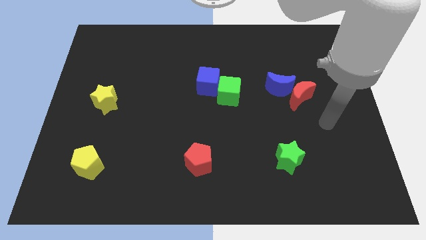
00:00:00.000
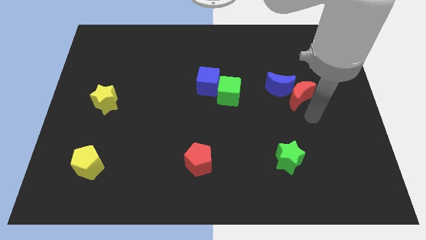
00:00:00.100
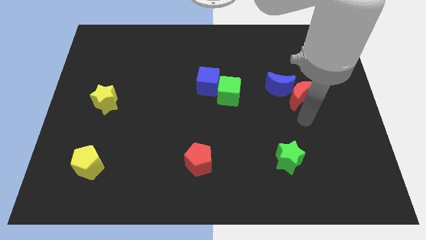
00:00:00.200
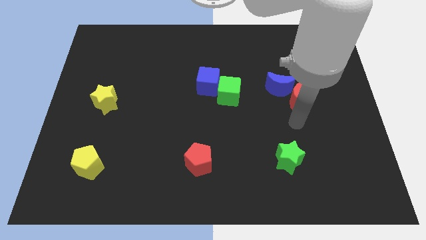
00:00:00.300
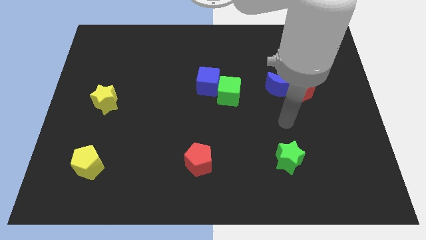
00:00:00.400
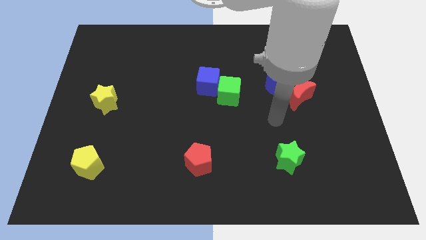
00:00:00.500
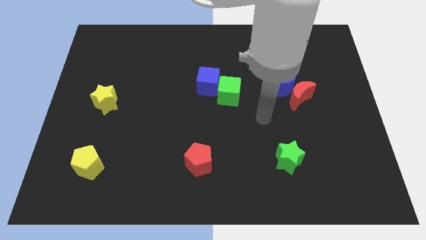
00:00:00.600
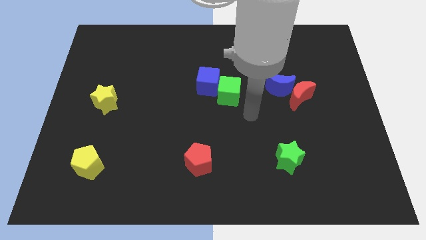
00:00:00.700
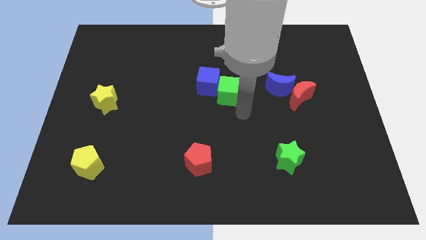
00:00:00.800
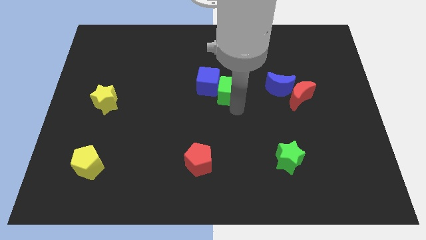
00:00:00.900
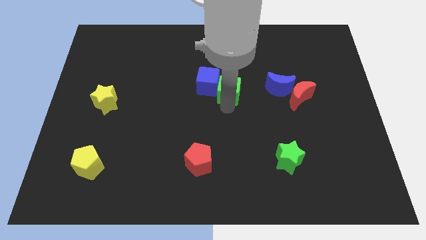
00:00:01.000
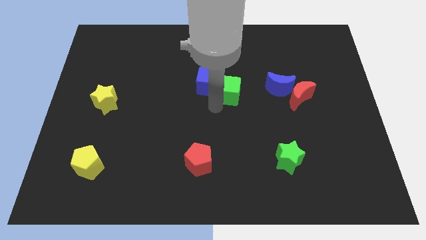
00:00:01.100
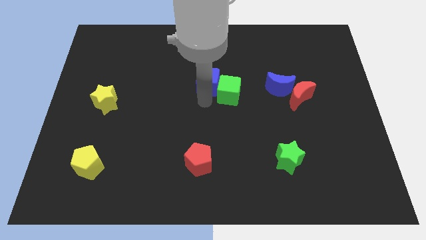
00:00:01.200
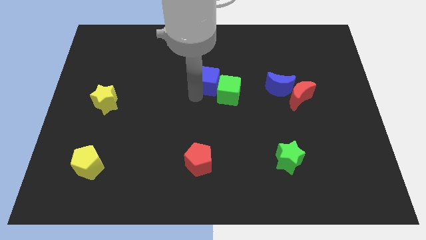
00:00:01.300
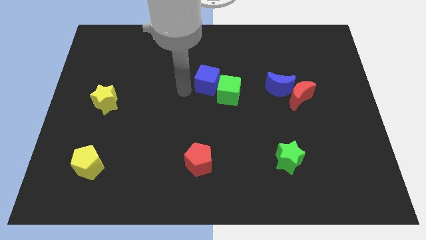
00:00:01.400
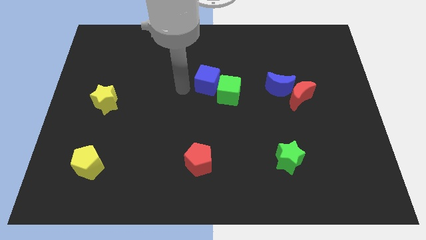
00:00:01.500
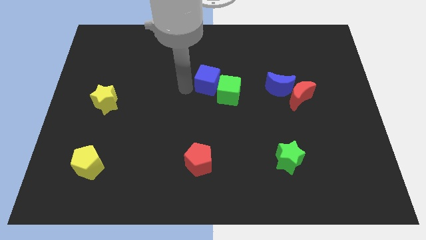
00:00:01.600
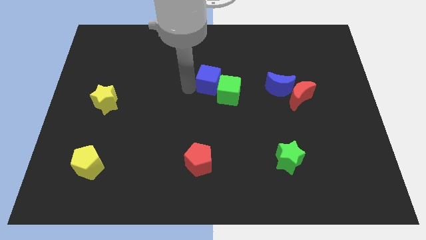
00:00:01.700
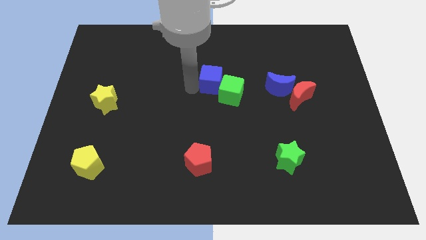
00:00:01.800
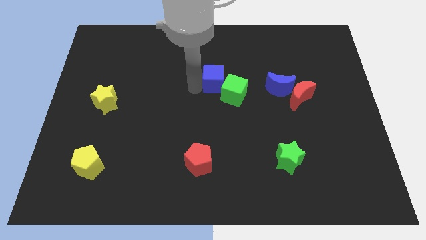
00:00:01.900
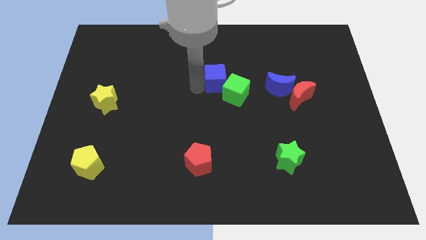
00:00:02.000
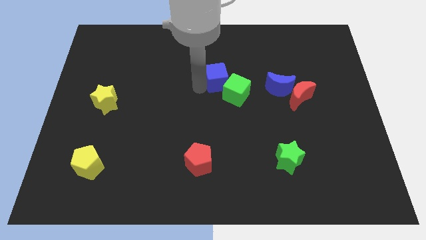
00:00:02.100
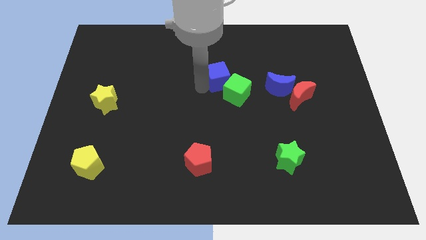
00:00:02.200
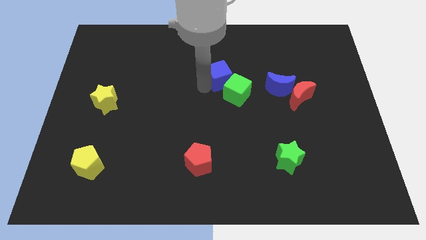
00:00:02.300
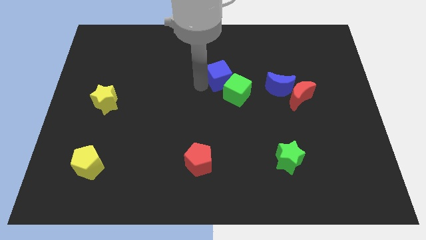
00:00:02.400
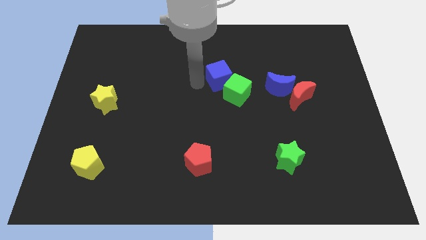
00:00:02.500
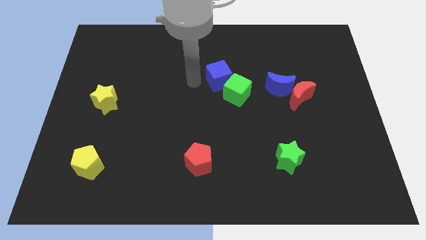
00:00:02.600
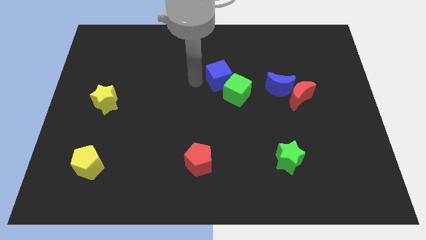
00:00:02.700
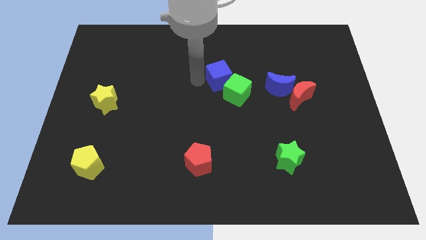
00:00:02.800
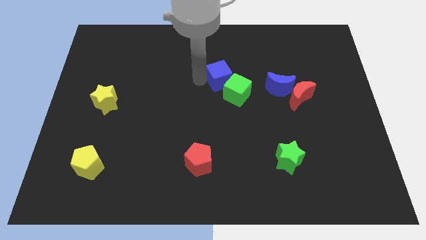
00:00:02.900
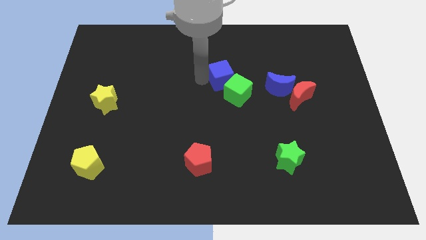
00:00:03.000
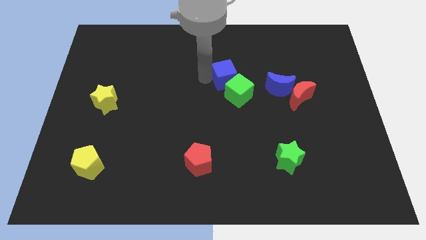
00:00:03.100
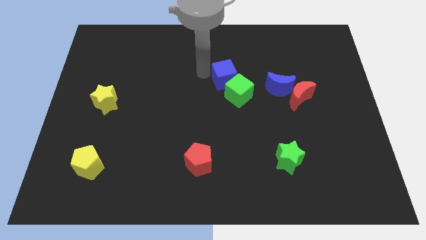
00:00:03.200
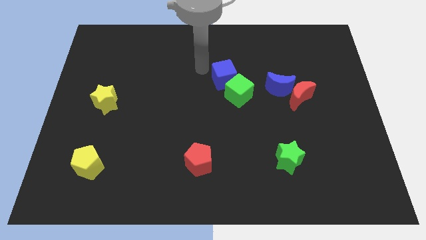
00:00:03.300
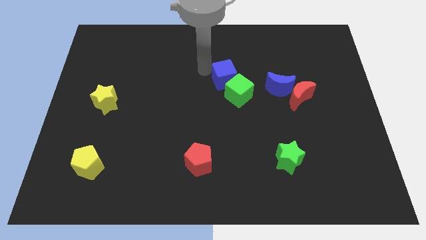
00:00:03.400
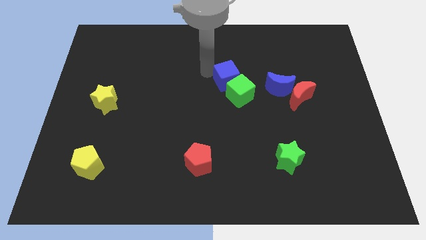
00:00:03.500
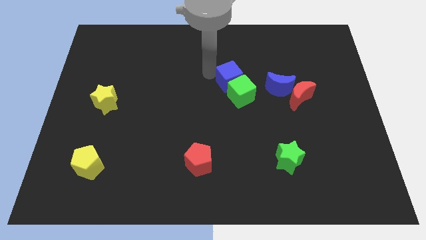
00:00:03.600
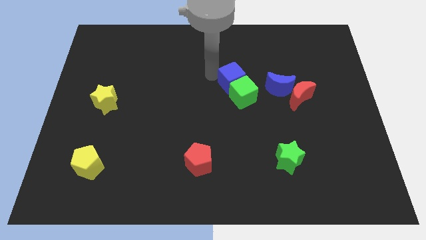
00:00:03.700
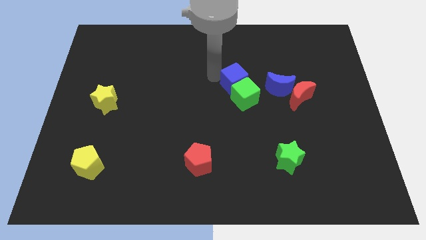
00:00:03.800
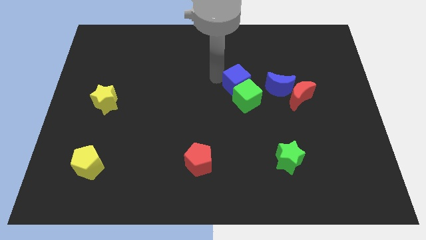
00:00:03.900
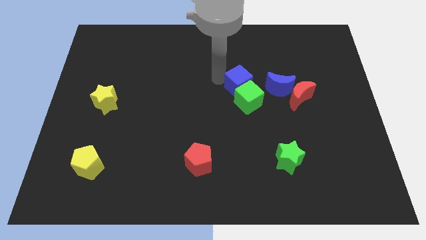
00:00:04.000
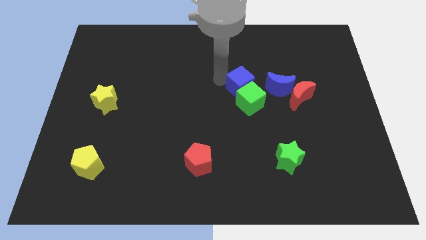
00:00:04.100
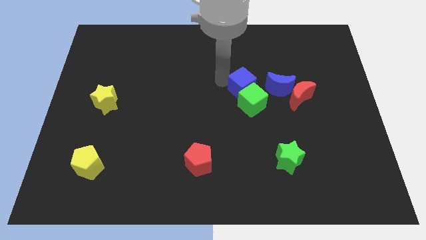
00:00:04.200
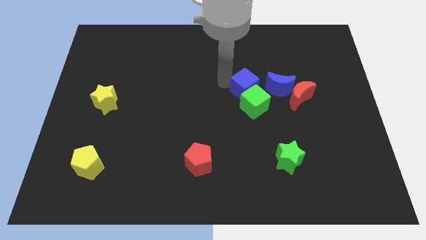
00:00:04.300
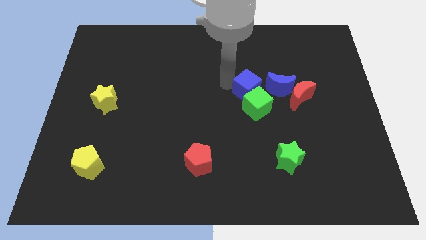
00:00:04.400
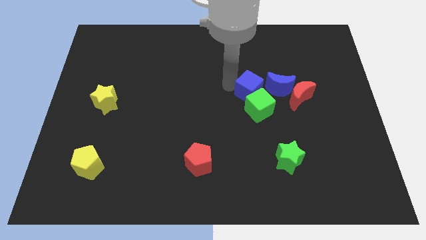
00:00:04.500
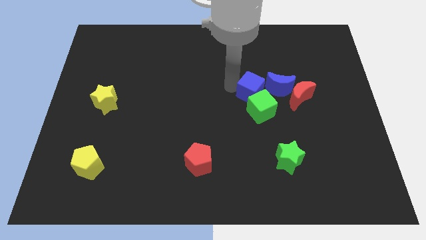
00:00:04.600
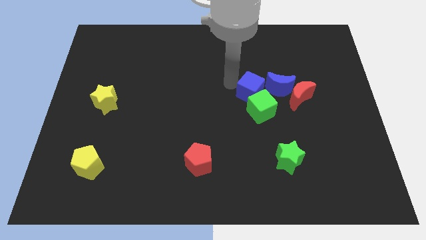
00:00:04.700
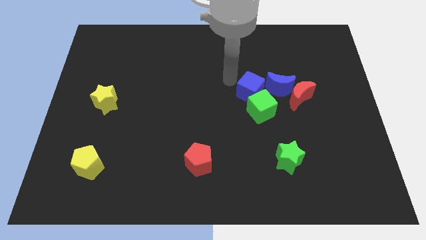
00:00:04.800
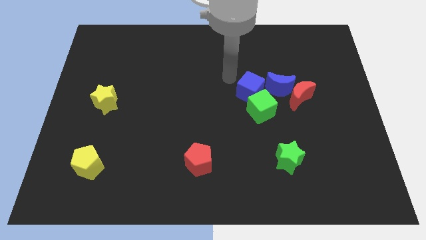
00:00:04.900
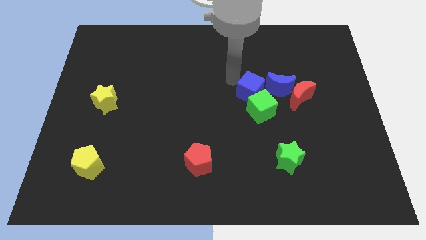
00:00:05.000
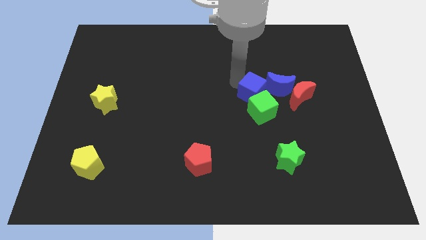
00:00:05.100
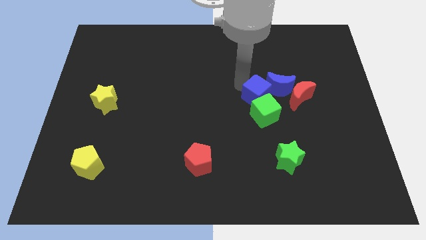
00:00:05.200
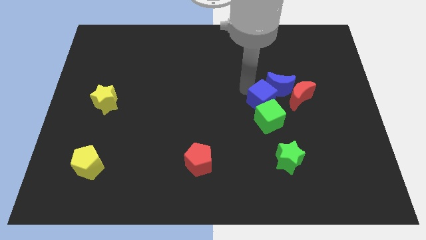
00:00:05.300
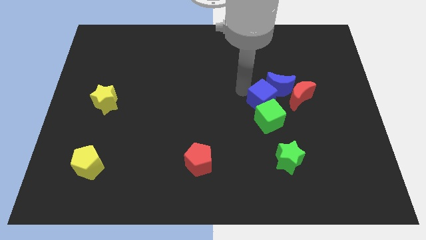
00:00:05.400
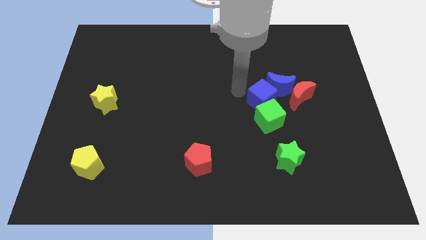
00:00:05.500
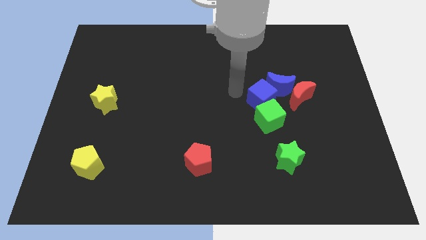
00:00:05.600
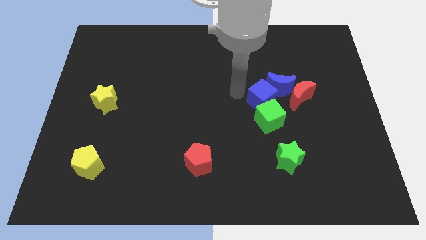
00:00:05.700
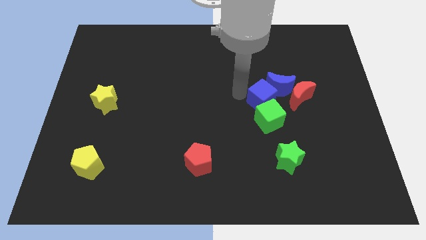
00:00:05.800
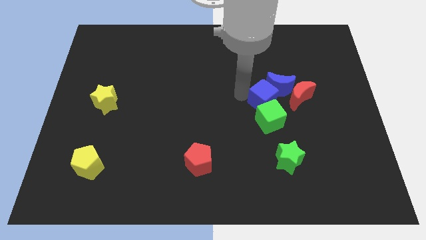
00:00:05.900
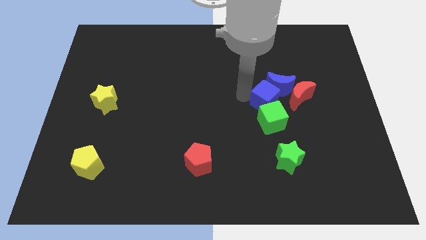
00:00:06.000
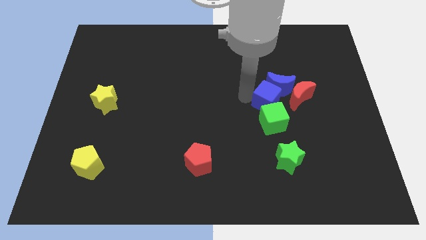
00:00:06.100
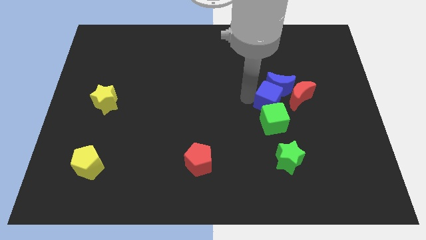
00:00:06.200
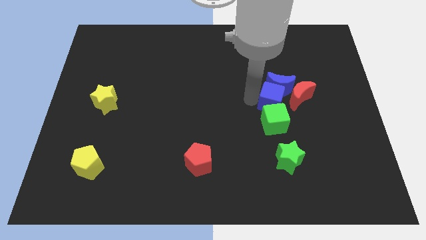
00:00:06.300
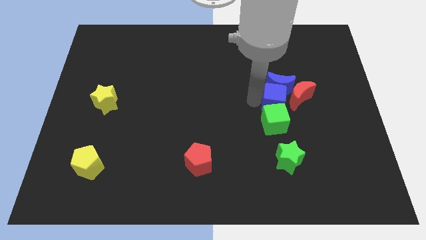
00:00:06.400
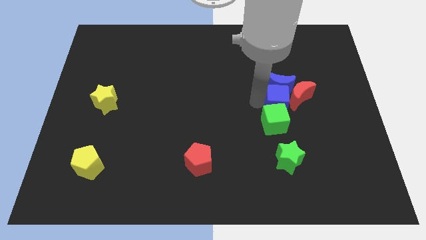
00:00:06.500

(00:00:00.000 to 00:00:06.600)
move the blue cube towards the red moon

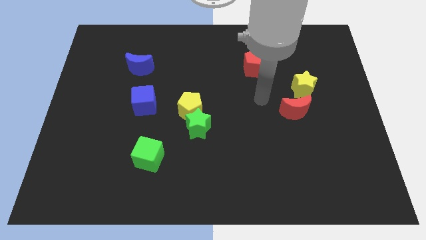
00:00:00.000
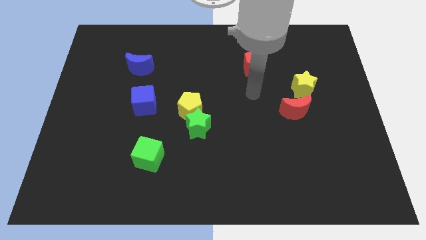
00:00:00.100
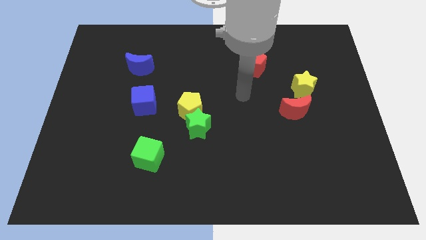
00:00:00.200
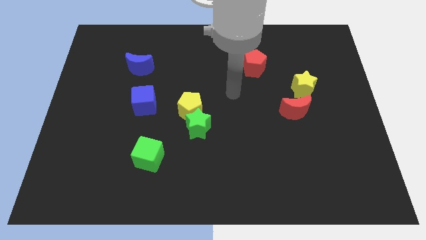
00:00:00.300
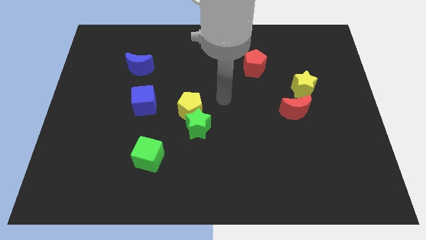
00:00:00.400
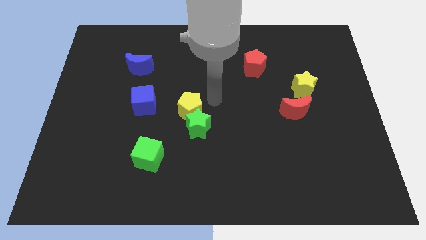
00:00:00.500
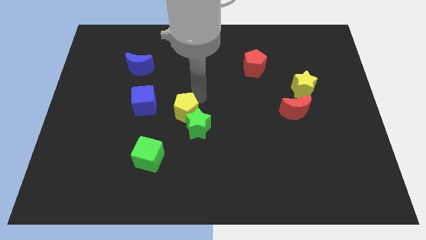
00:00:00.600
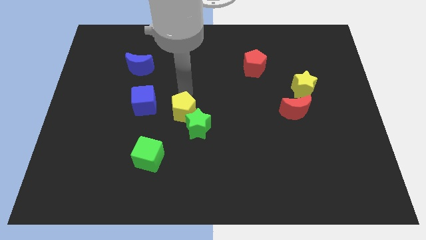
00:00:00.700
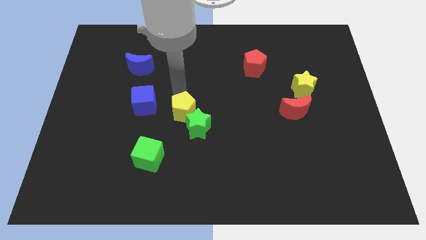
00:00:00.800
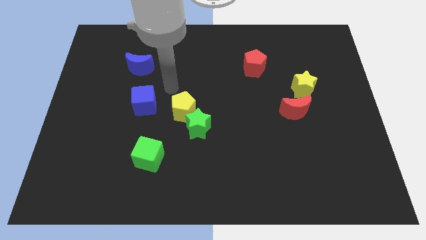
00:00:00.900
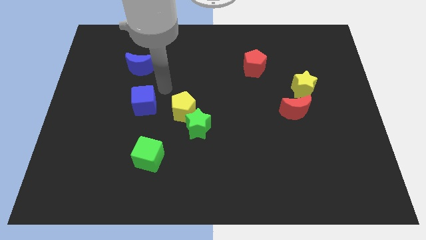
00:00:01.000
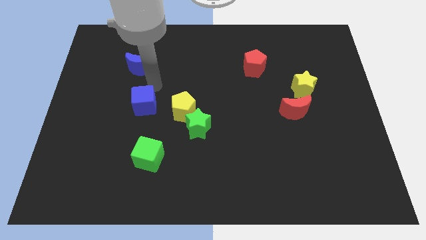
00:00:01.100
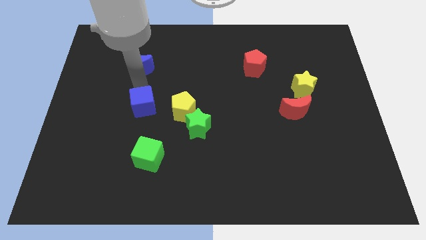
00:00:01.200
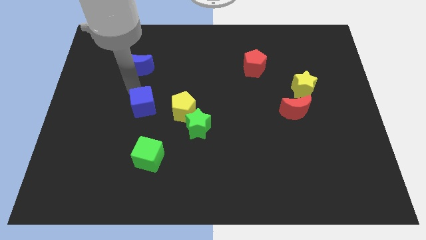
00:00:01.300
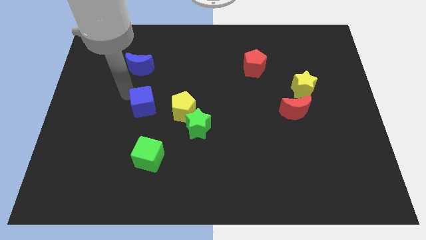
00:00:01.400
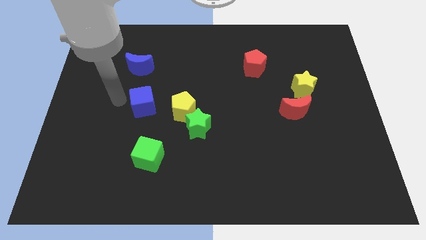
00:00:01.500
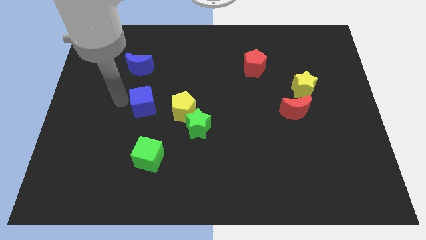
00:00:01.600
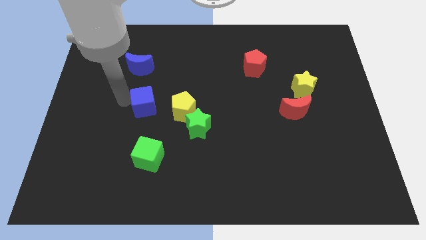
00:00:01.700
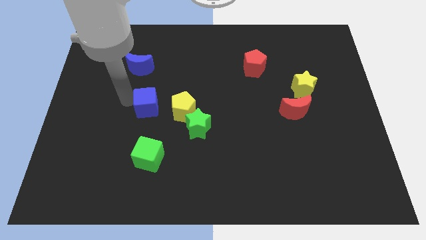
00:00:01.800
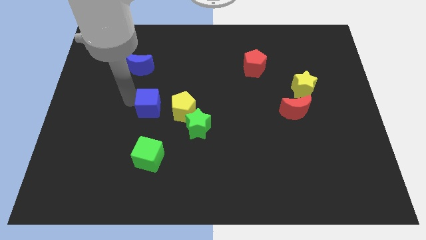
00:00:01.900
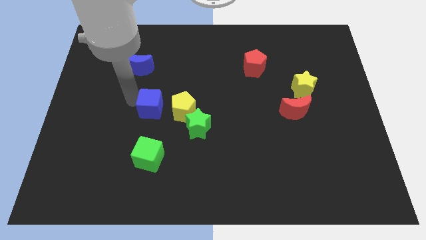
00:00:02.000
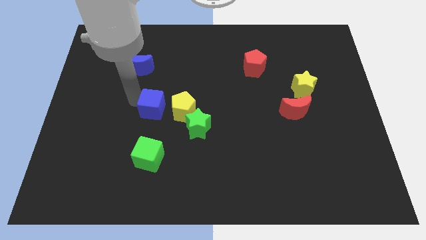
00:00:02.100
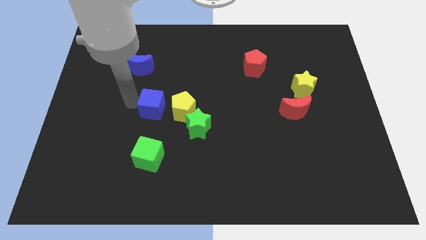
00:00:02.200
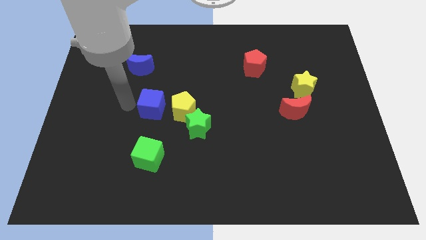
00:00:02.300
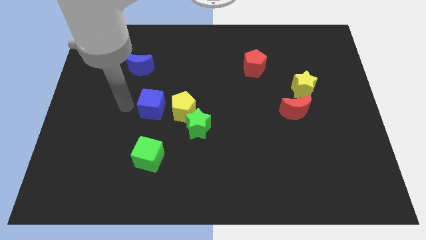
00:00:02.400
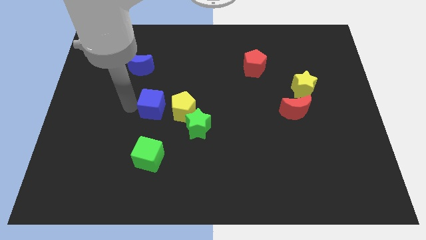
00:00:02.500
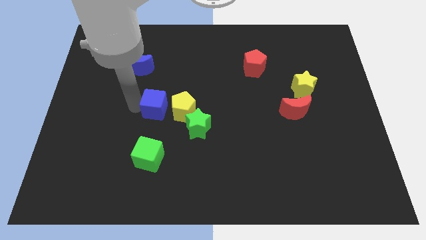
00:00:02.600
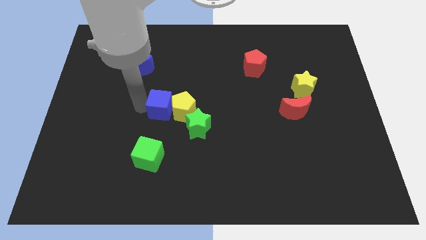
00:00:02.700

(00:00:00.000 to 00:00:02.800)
move the blue cube close to the yellow pentagon
